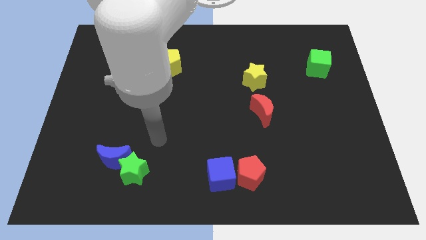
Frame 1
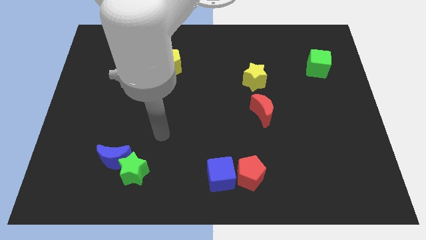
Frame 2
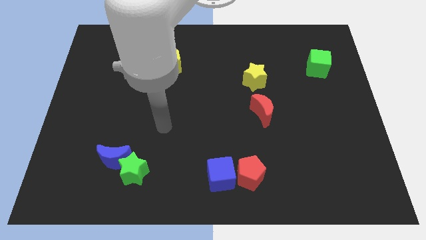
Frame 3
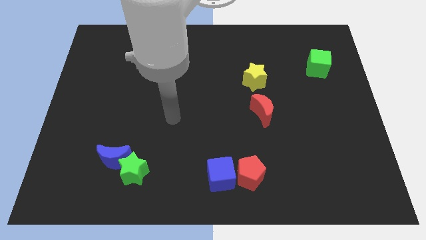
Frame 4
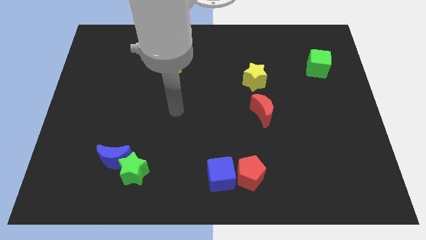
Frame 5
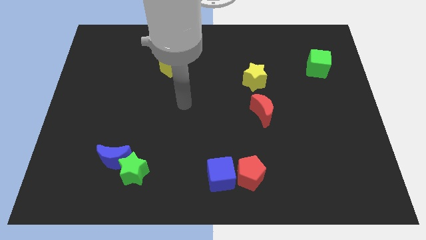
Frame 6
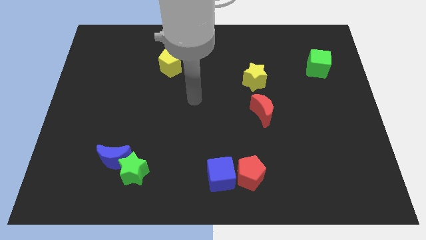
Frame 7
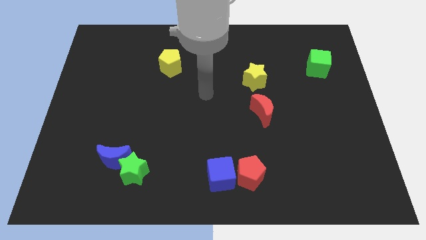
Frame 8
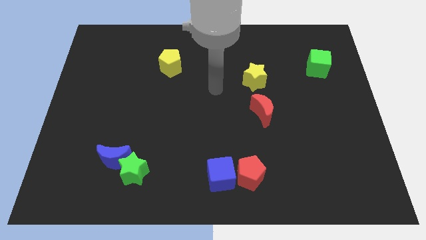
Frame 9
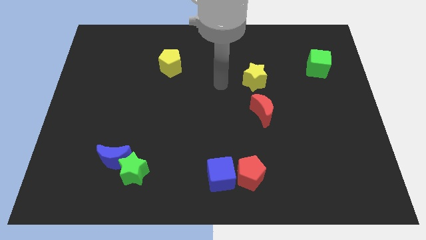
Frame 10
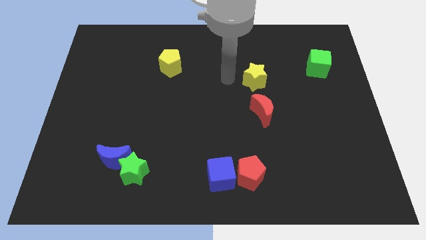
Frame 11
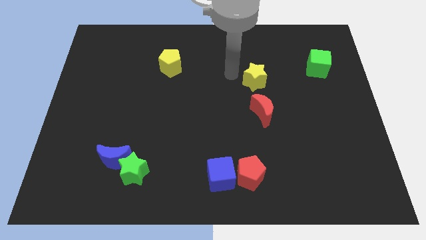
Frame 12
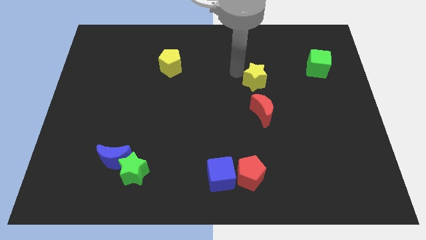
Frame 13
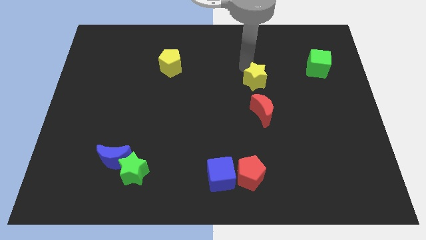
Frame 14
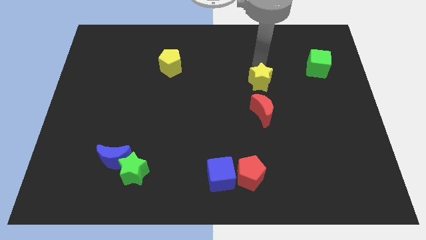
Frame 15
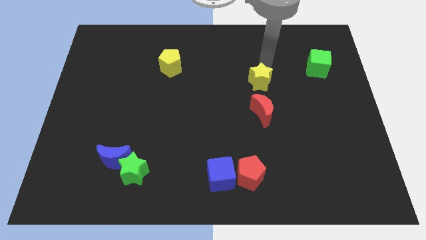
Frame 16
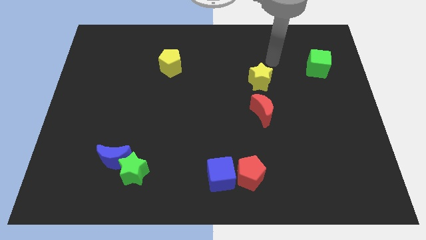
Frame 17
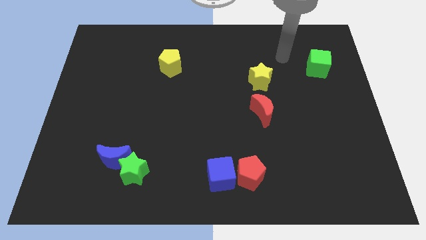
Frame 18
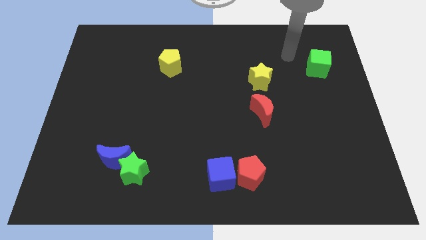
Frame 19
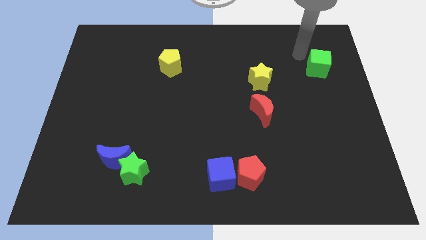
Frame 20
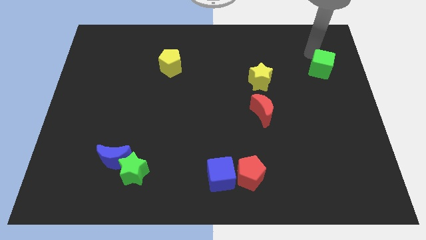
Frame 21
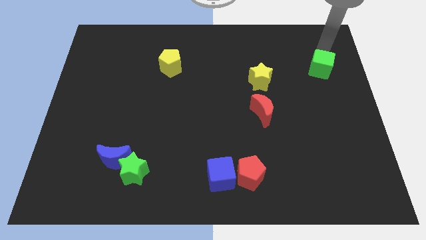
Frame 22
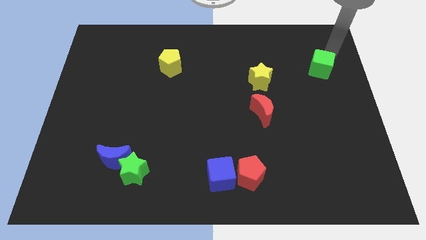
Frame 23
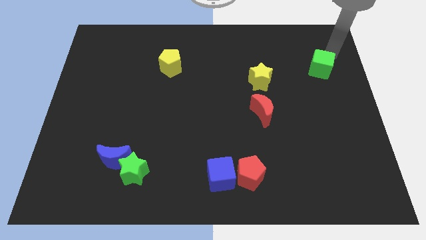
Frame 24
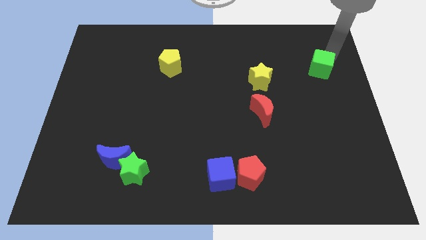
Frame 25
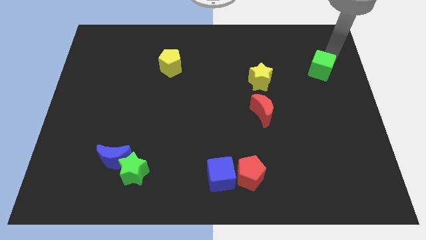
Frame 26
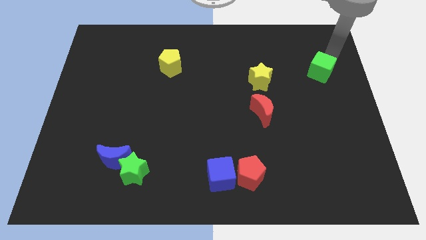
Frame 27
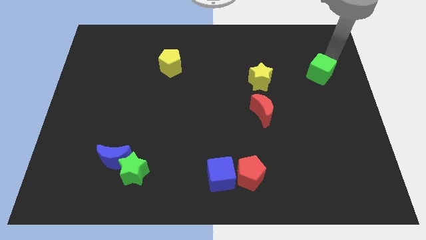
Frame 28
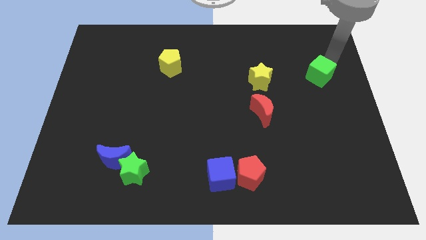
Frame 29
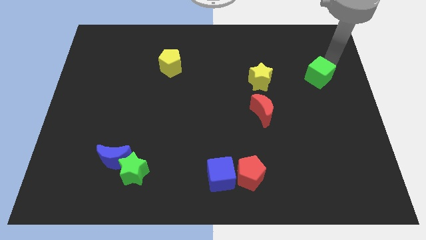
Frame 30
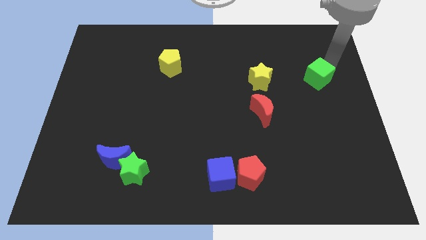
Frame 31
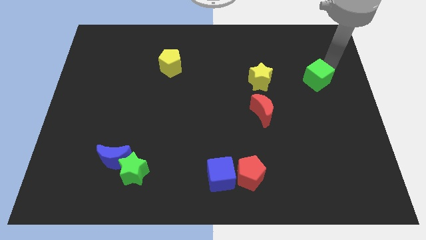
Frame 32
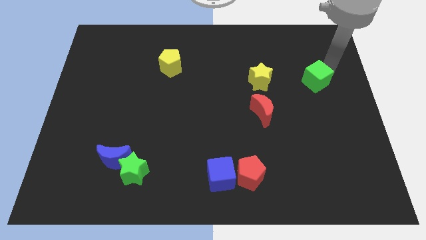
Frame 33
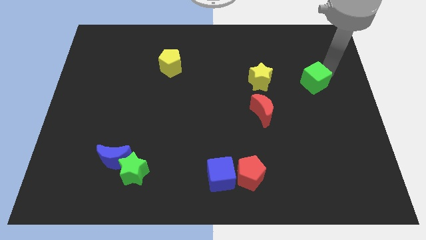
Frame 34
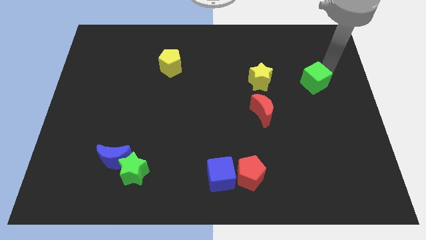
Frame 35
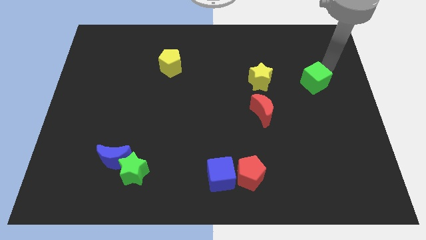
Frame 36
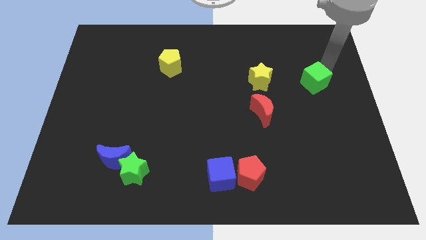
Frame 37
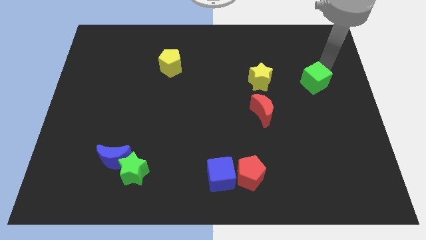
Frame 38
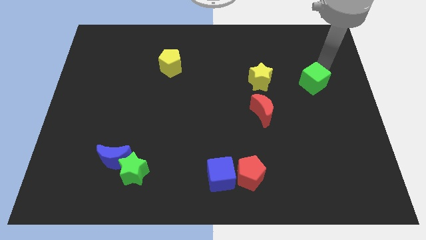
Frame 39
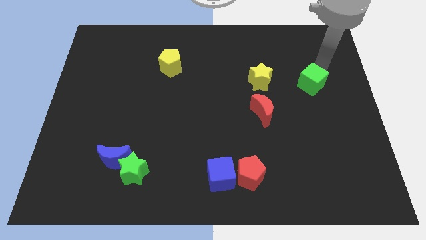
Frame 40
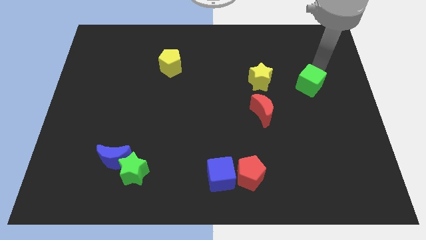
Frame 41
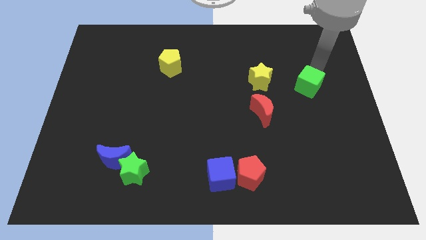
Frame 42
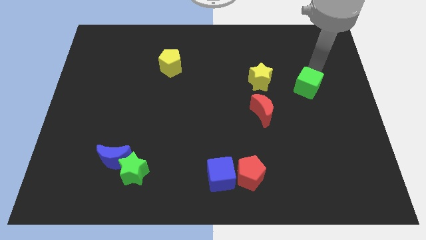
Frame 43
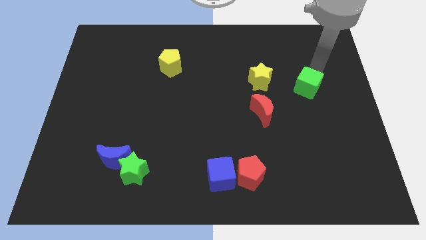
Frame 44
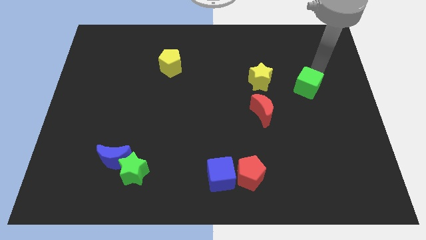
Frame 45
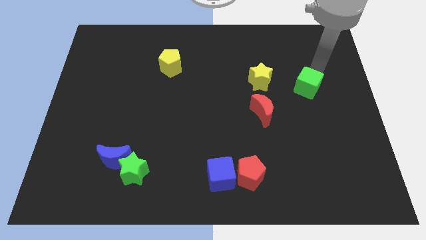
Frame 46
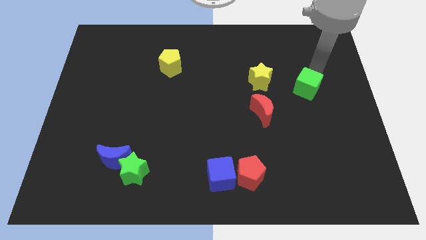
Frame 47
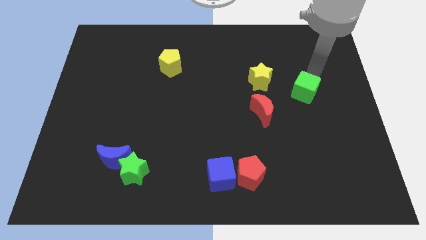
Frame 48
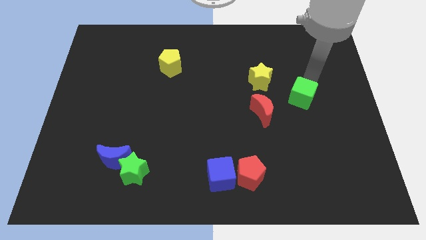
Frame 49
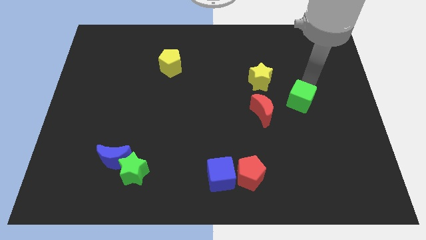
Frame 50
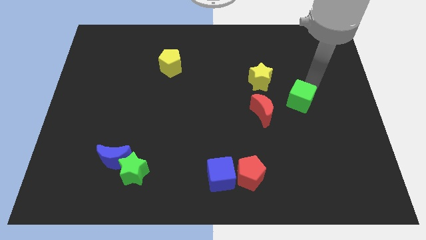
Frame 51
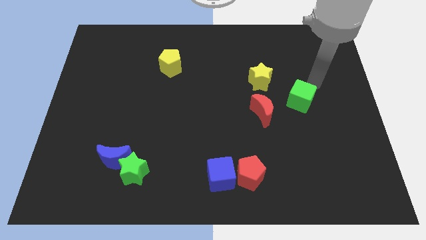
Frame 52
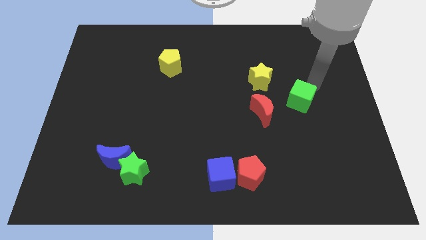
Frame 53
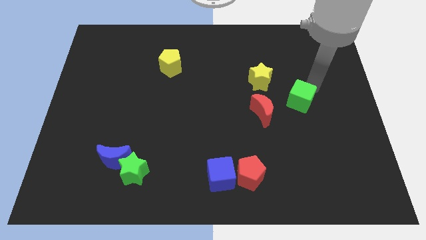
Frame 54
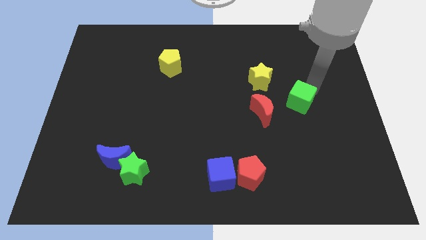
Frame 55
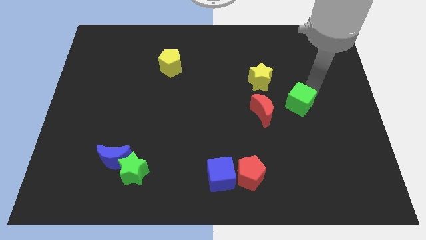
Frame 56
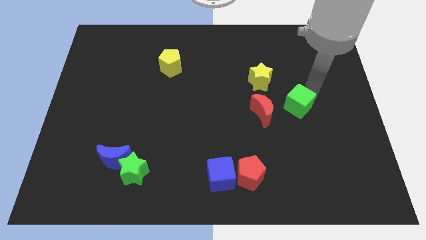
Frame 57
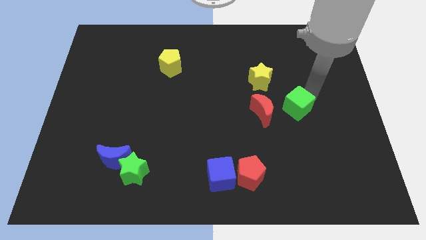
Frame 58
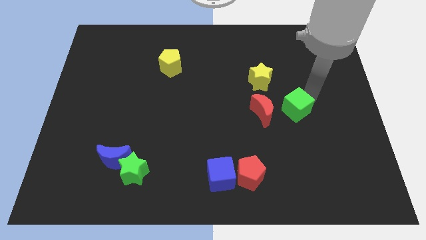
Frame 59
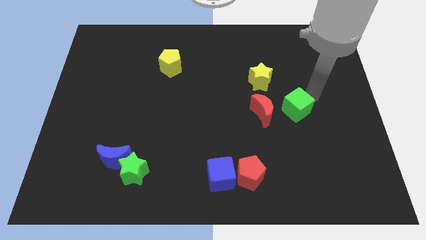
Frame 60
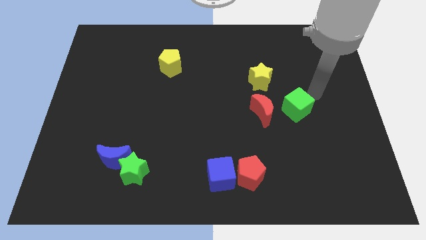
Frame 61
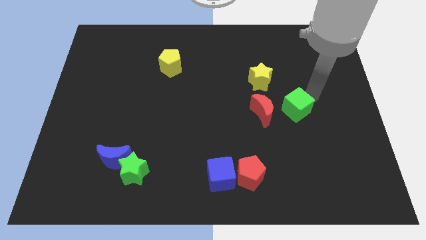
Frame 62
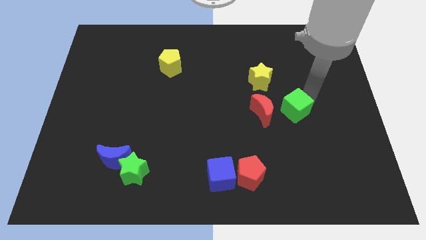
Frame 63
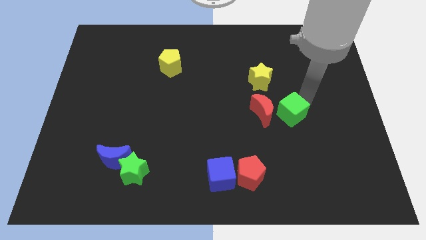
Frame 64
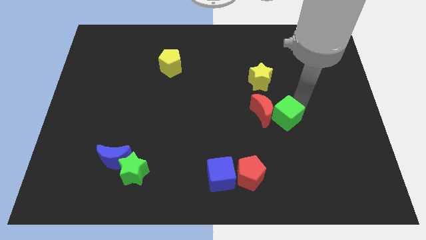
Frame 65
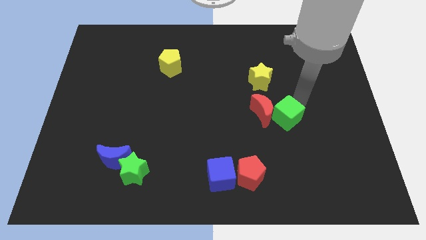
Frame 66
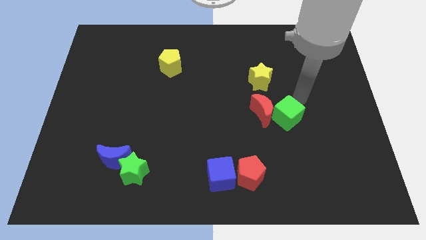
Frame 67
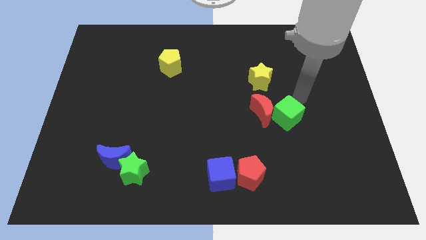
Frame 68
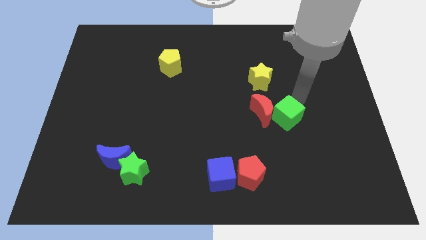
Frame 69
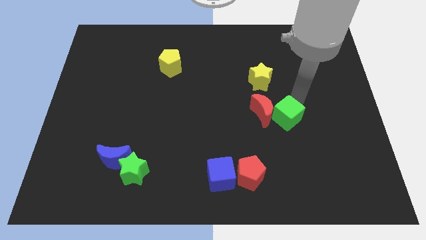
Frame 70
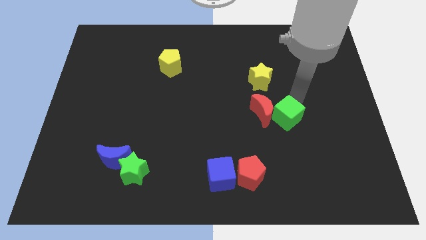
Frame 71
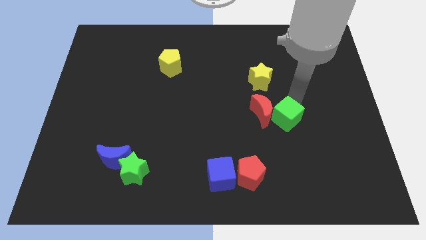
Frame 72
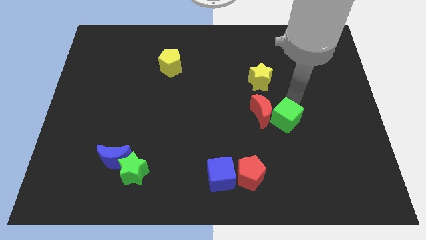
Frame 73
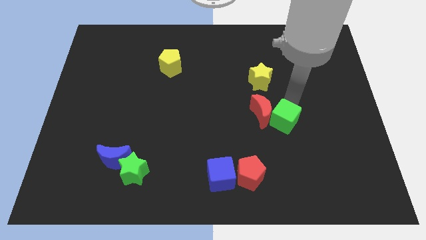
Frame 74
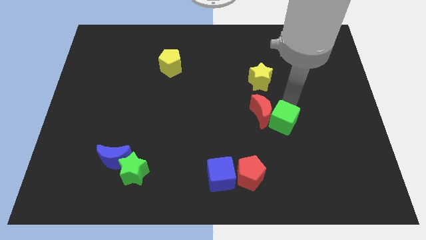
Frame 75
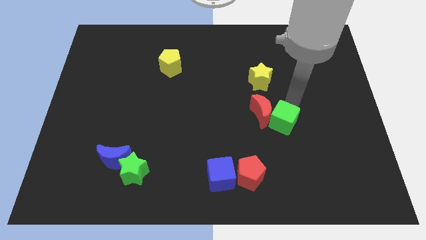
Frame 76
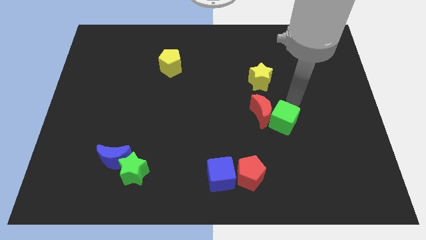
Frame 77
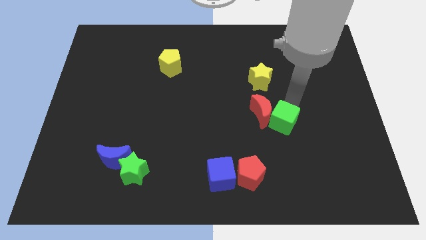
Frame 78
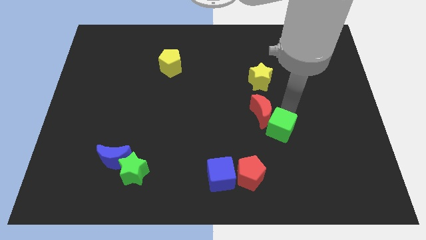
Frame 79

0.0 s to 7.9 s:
push the green cube below the red moon
